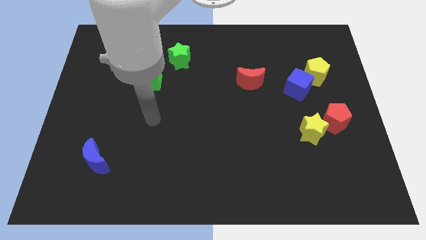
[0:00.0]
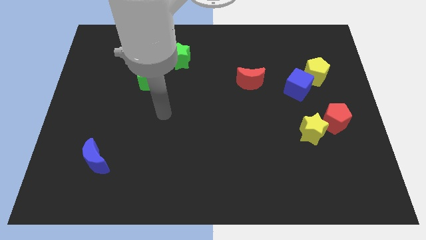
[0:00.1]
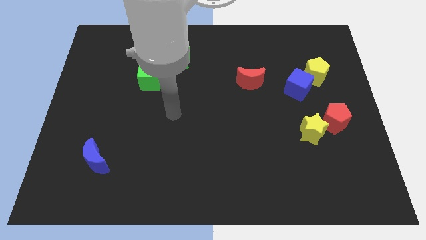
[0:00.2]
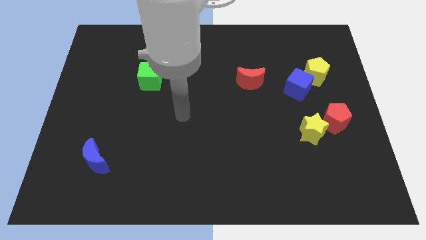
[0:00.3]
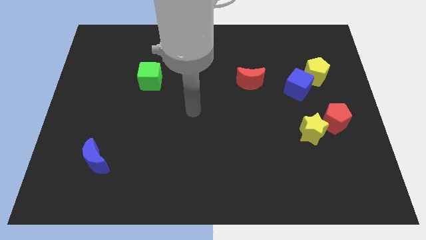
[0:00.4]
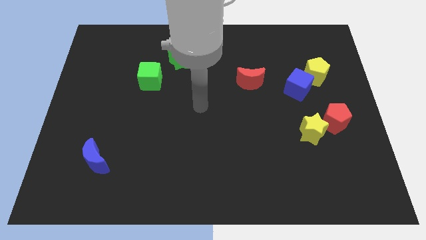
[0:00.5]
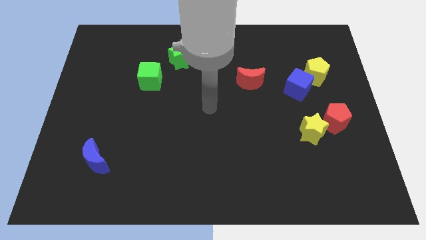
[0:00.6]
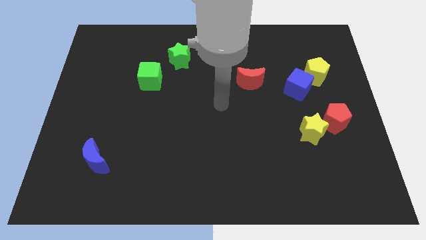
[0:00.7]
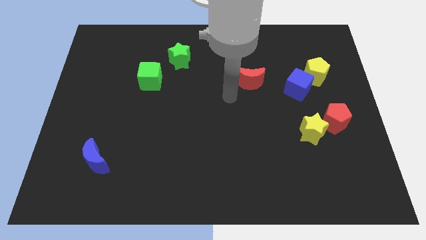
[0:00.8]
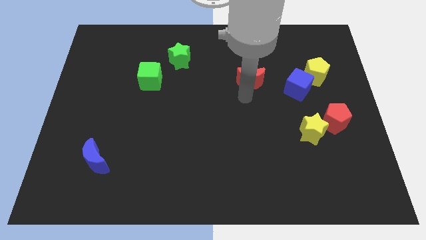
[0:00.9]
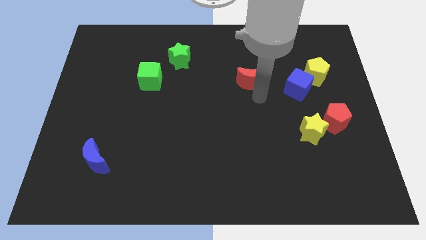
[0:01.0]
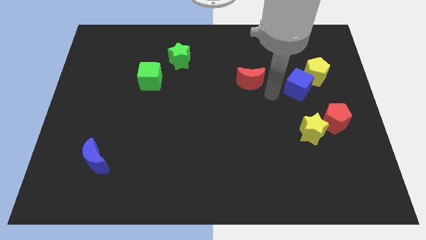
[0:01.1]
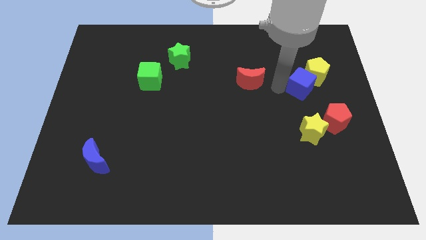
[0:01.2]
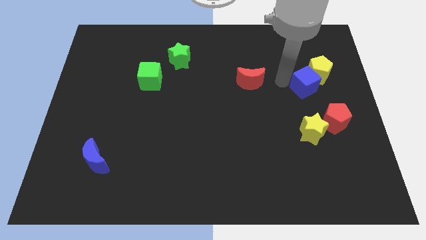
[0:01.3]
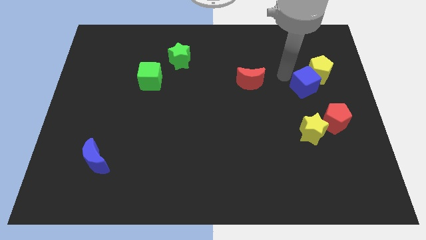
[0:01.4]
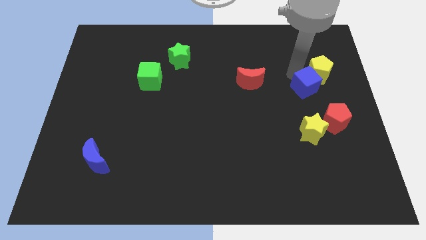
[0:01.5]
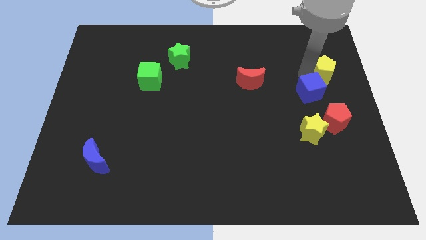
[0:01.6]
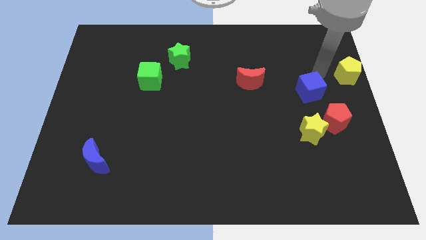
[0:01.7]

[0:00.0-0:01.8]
separate the blue cube from the yellow pentagon

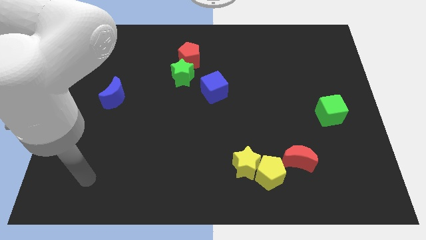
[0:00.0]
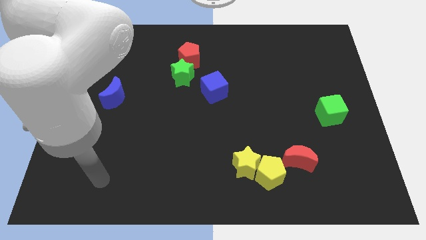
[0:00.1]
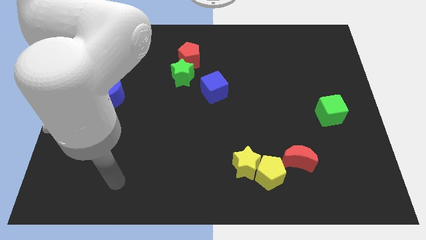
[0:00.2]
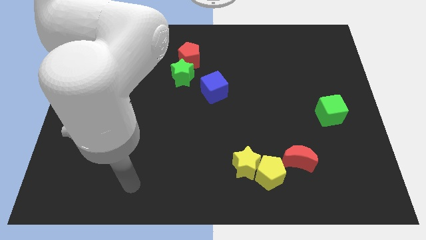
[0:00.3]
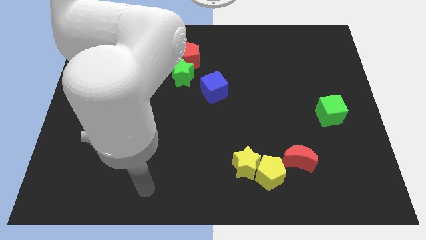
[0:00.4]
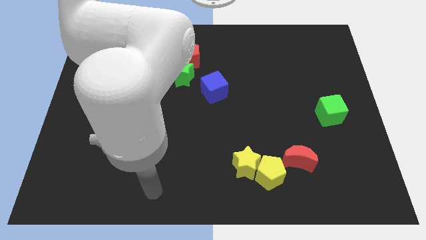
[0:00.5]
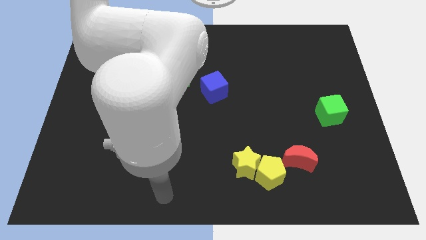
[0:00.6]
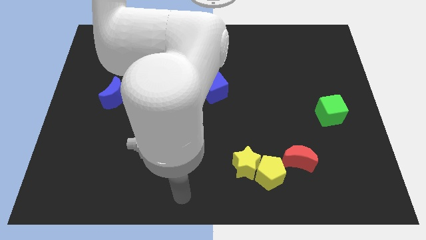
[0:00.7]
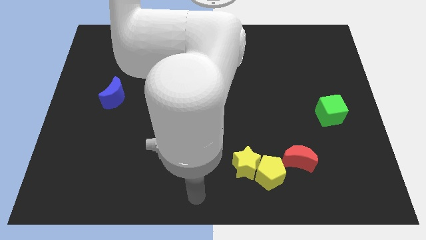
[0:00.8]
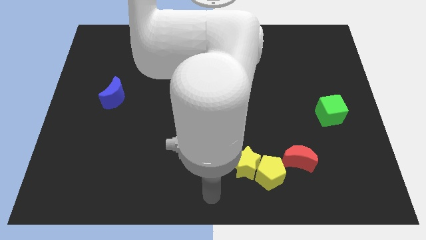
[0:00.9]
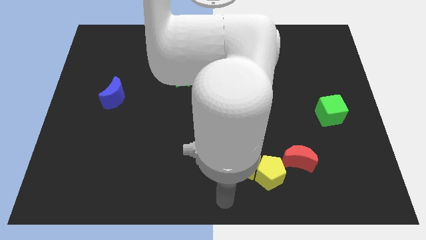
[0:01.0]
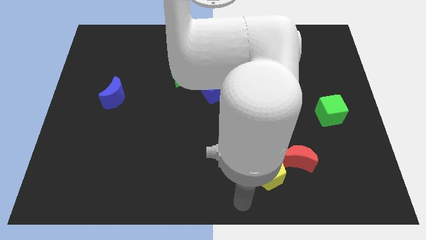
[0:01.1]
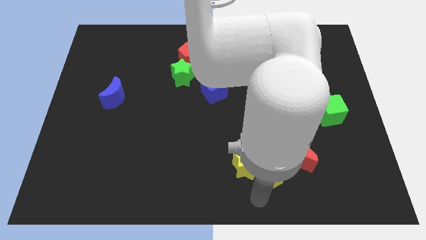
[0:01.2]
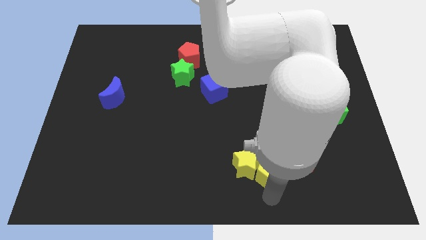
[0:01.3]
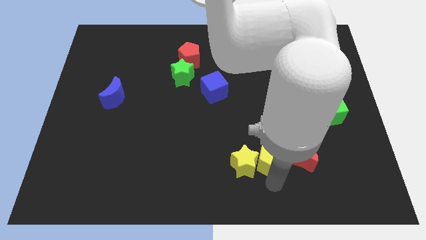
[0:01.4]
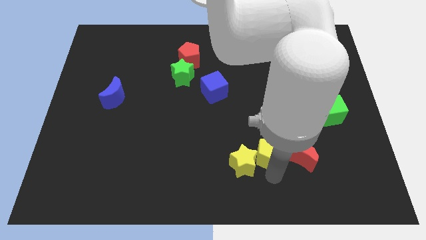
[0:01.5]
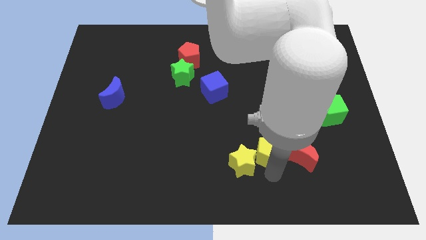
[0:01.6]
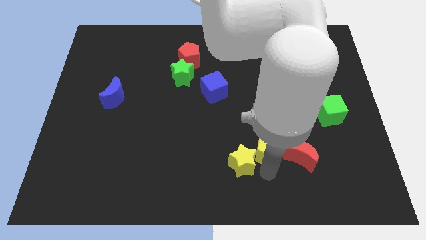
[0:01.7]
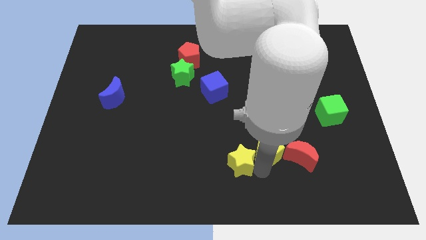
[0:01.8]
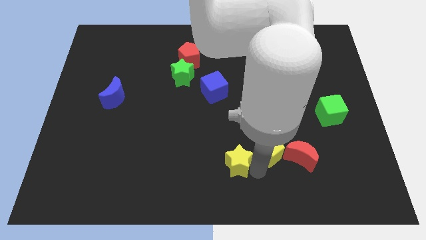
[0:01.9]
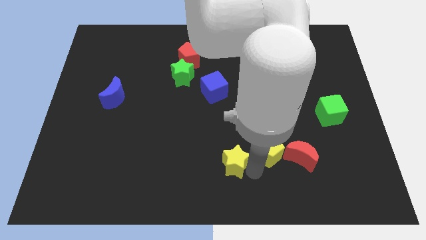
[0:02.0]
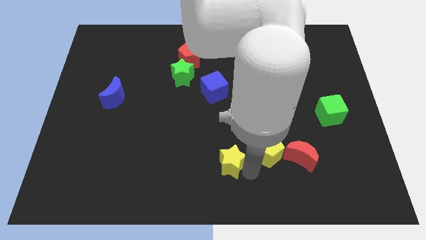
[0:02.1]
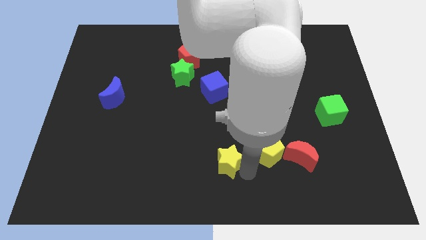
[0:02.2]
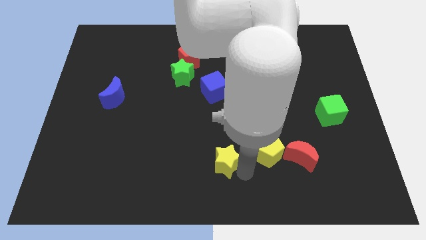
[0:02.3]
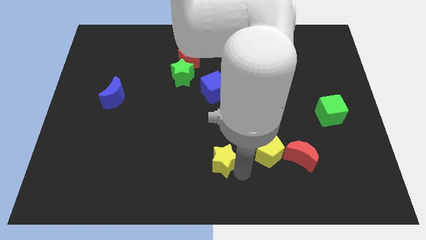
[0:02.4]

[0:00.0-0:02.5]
separate the yellow star from the yellow pentagon

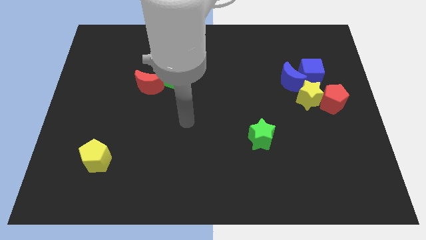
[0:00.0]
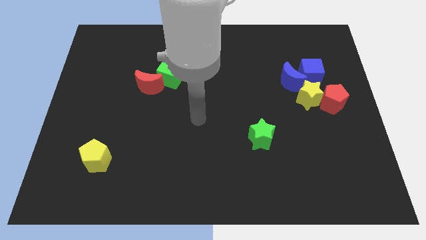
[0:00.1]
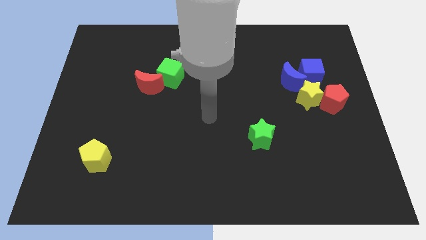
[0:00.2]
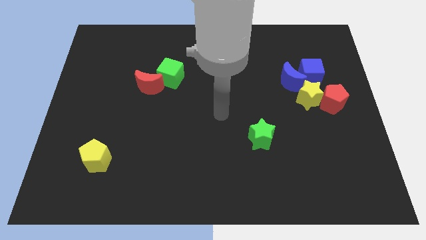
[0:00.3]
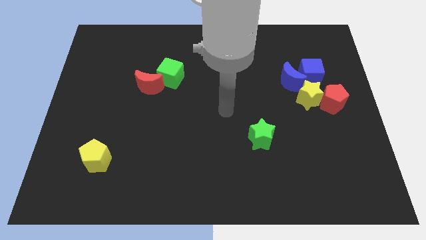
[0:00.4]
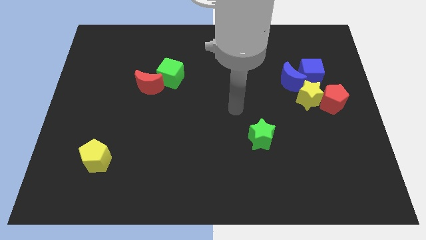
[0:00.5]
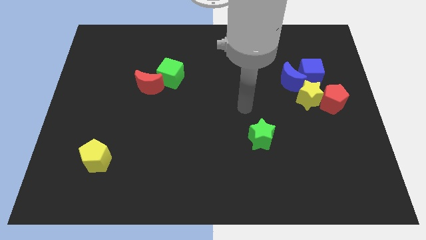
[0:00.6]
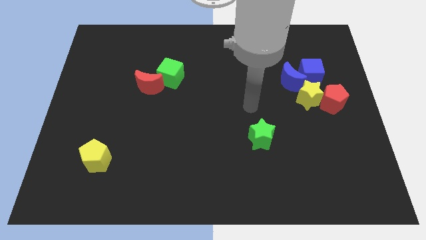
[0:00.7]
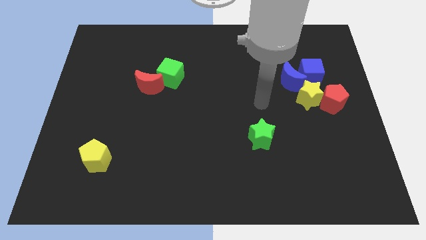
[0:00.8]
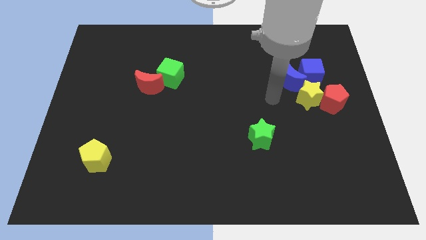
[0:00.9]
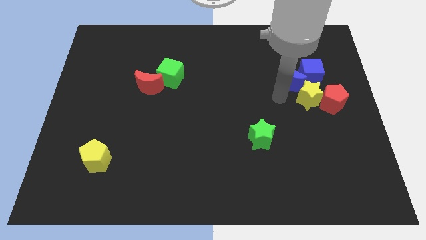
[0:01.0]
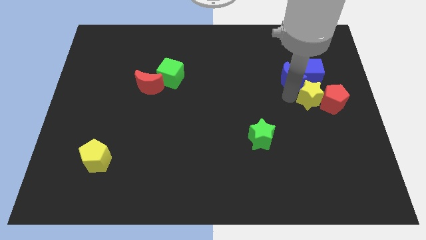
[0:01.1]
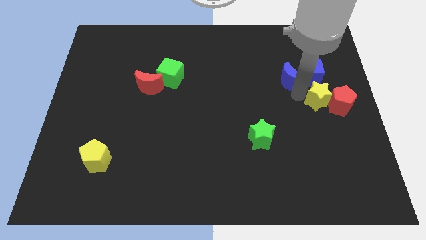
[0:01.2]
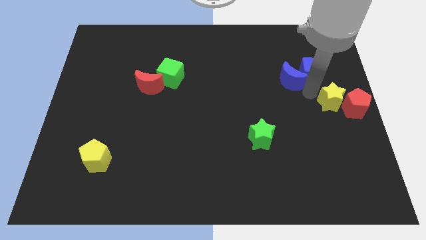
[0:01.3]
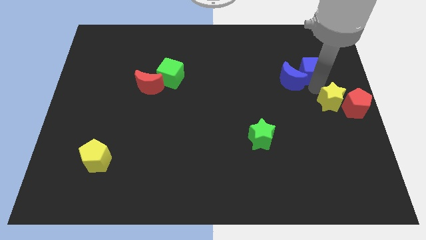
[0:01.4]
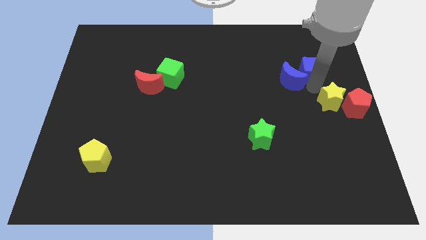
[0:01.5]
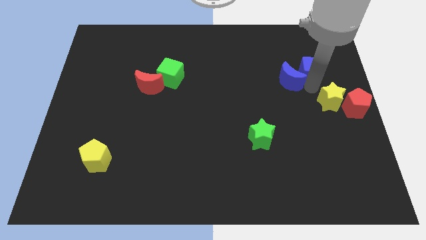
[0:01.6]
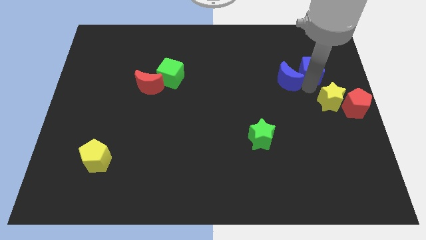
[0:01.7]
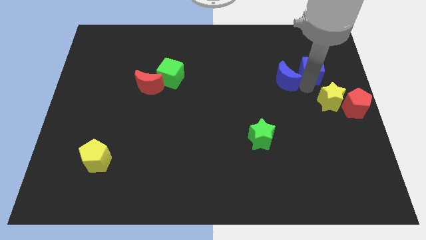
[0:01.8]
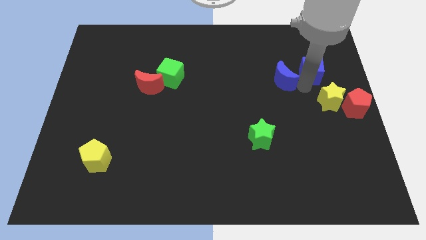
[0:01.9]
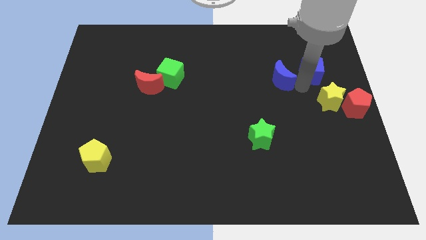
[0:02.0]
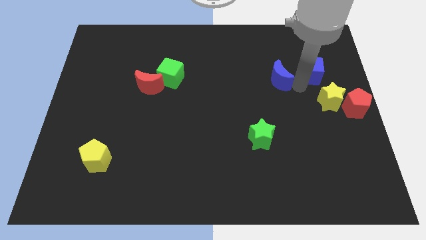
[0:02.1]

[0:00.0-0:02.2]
move the blue moon away from the blue cube and yellow star

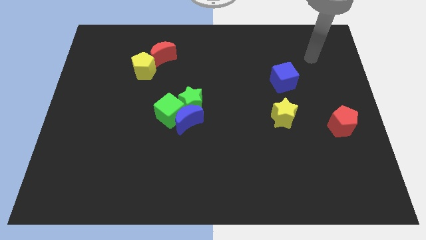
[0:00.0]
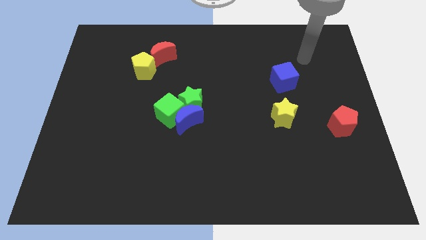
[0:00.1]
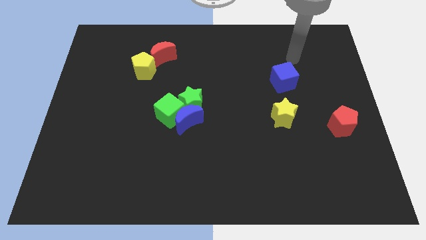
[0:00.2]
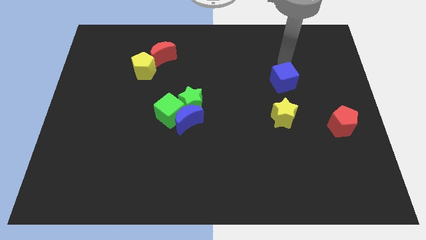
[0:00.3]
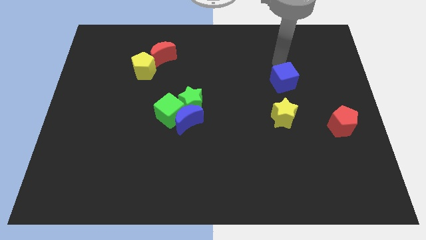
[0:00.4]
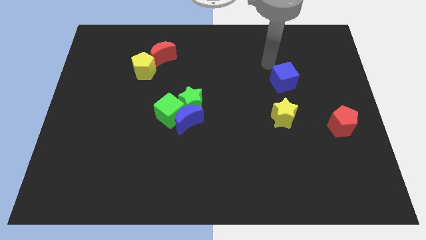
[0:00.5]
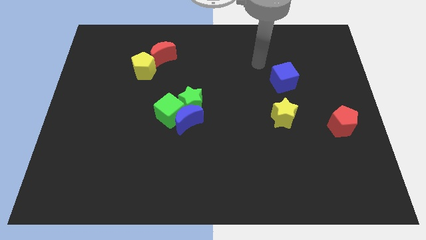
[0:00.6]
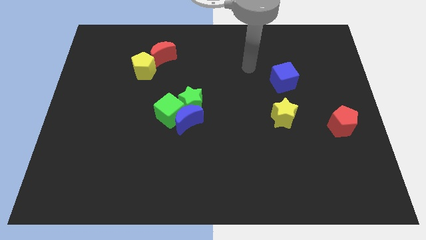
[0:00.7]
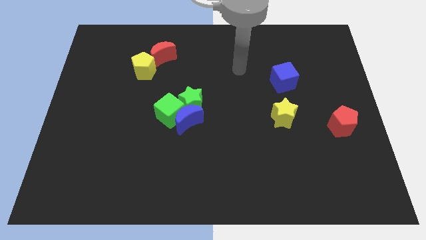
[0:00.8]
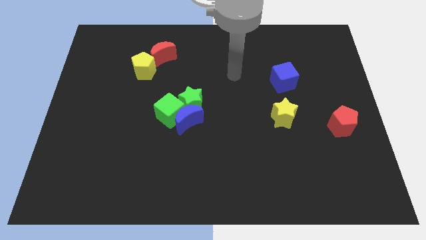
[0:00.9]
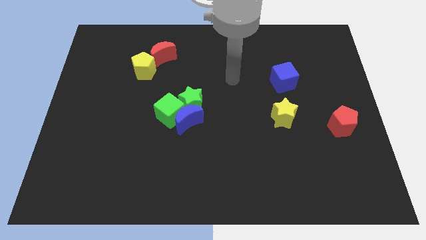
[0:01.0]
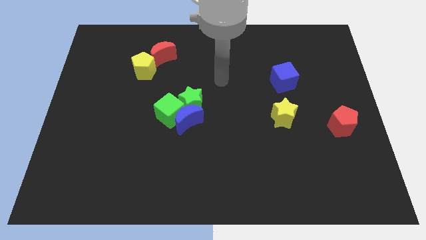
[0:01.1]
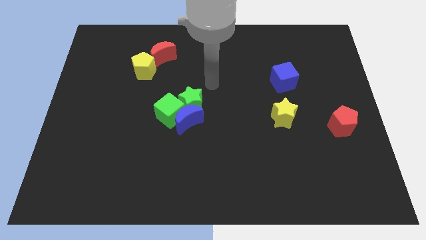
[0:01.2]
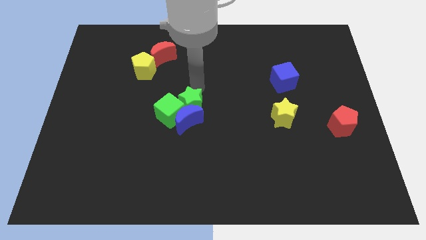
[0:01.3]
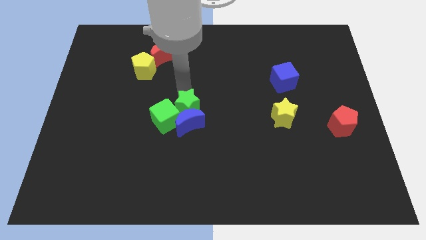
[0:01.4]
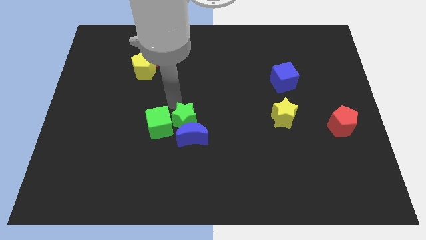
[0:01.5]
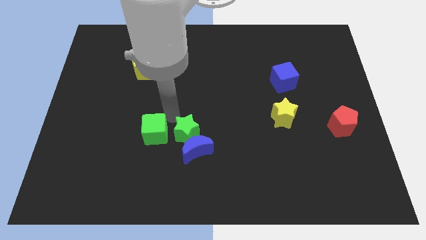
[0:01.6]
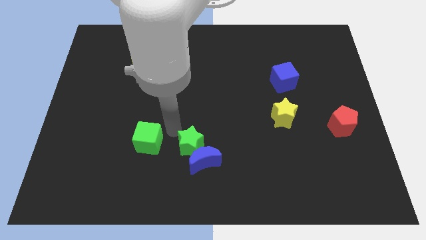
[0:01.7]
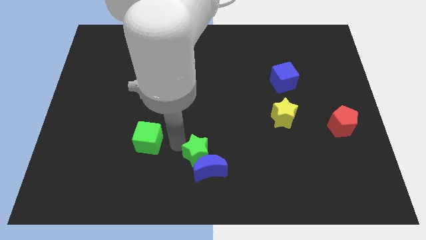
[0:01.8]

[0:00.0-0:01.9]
pull the blue moon apart from the green cube and green star

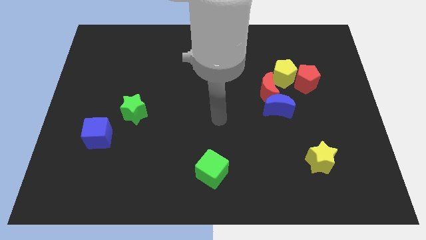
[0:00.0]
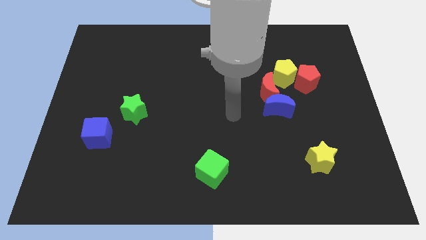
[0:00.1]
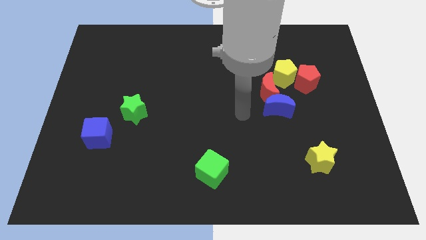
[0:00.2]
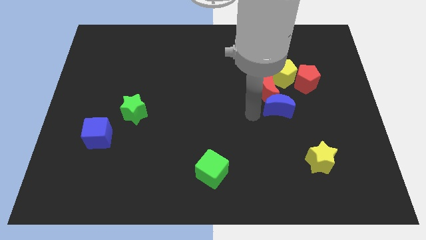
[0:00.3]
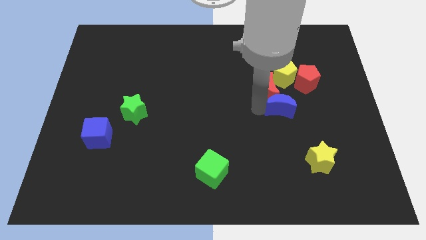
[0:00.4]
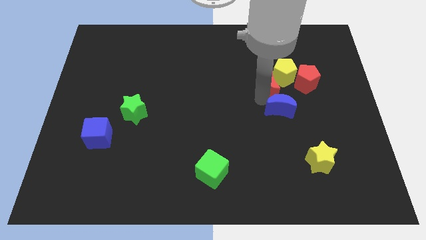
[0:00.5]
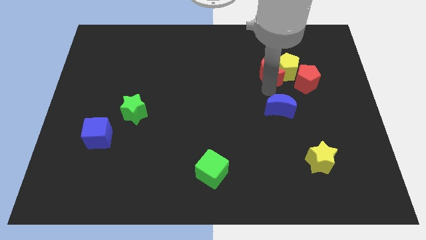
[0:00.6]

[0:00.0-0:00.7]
pull the blue moon apart from the red moon

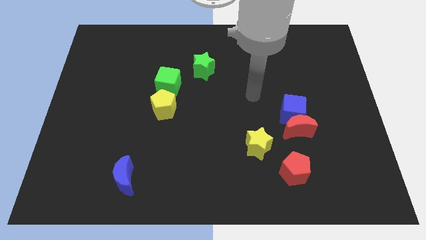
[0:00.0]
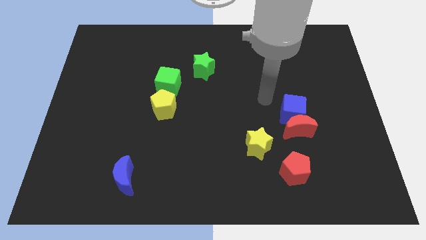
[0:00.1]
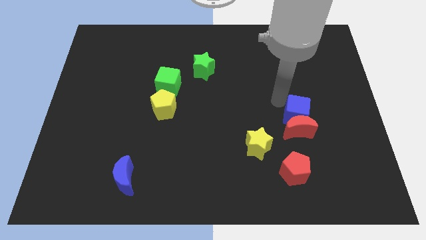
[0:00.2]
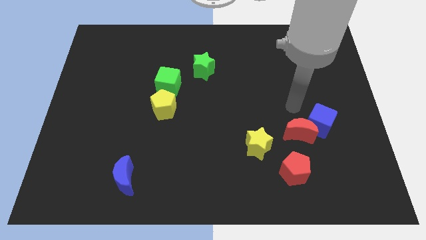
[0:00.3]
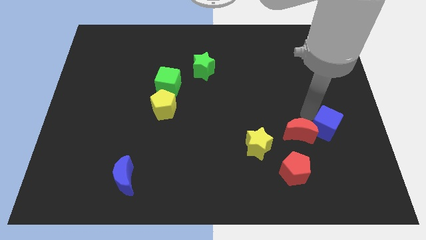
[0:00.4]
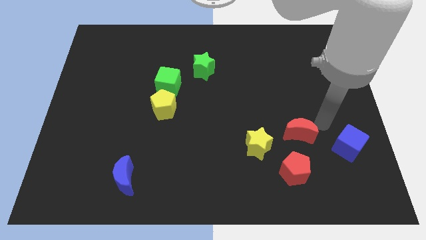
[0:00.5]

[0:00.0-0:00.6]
separate the red moon from the blue cube
